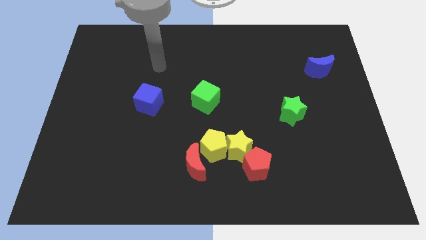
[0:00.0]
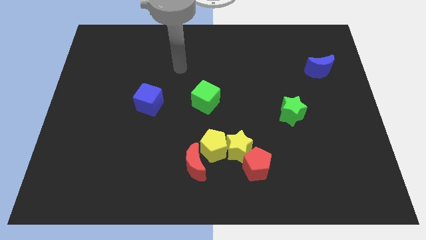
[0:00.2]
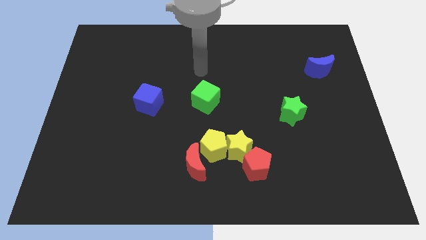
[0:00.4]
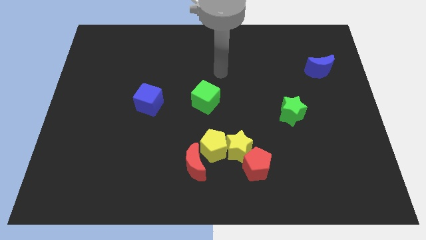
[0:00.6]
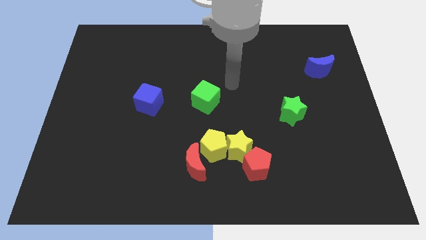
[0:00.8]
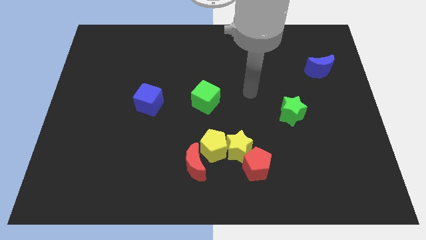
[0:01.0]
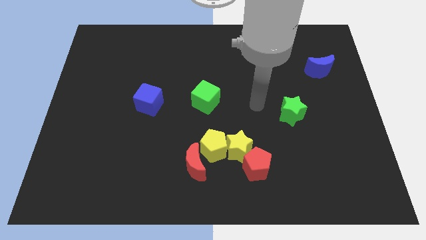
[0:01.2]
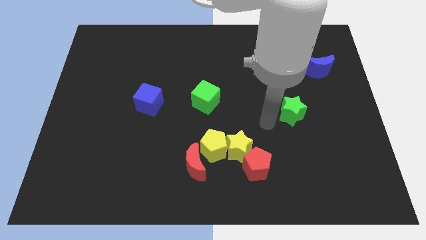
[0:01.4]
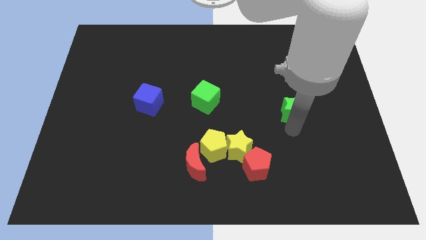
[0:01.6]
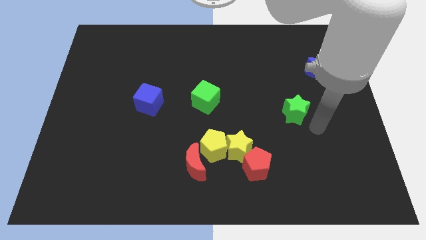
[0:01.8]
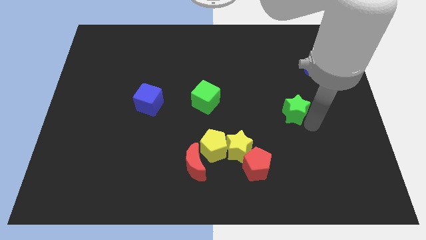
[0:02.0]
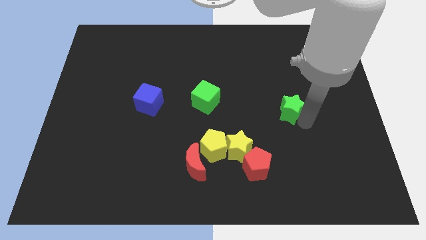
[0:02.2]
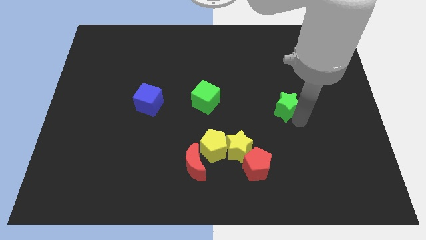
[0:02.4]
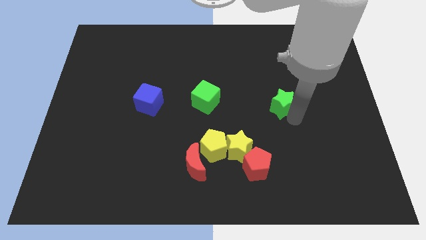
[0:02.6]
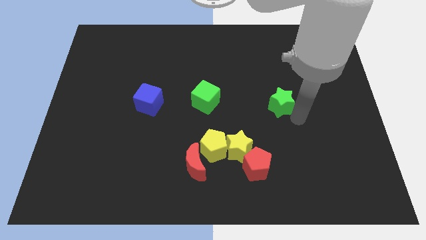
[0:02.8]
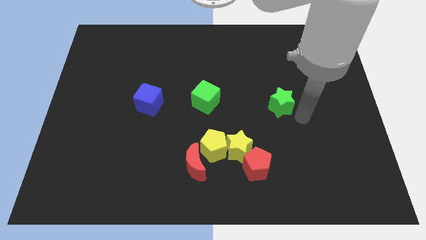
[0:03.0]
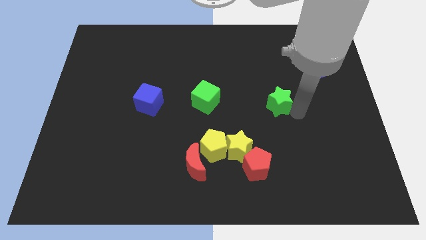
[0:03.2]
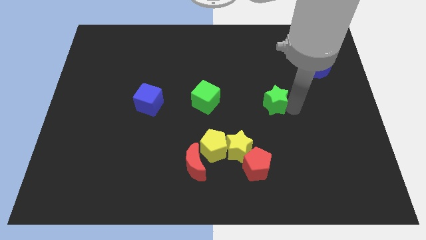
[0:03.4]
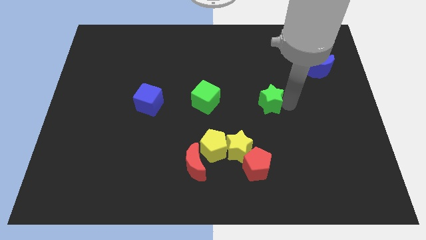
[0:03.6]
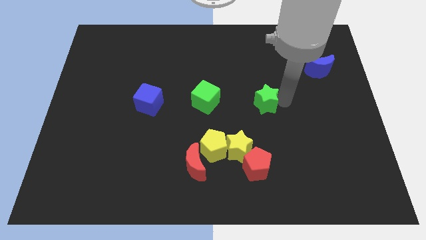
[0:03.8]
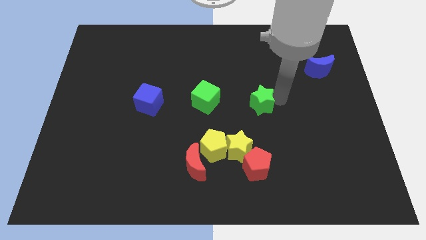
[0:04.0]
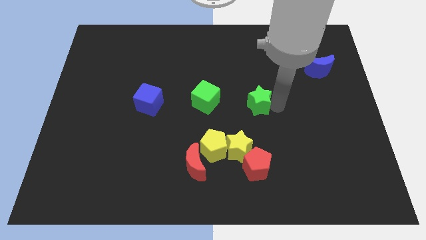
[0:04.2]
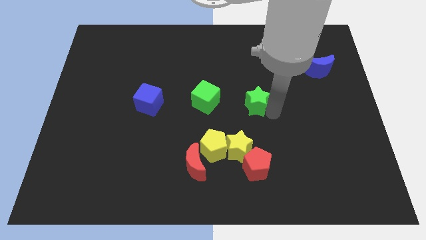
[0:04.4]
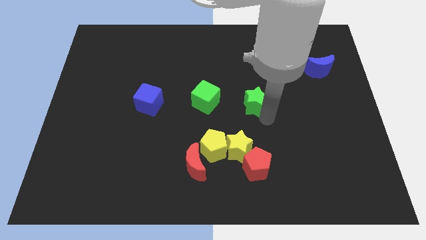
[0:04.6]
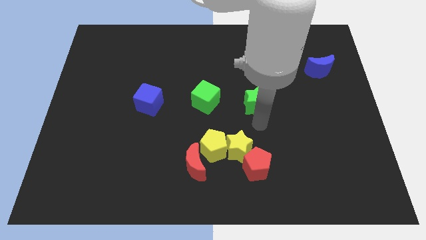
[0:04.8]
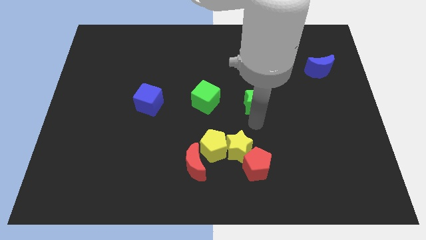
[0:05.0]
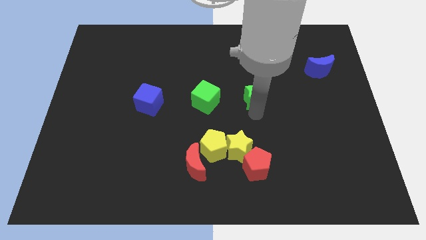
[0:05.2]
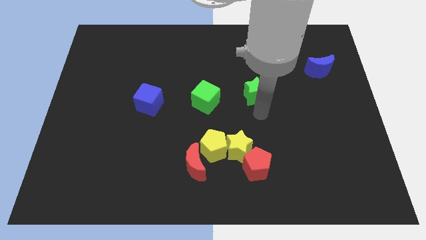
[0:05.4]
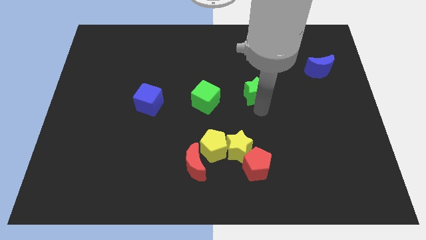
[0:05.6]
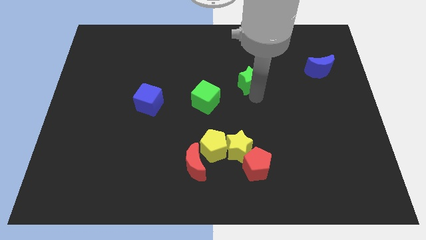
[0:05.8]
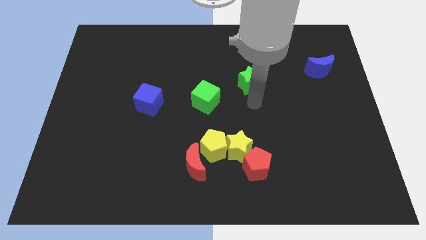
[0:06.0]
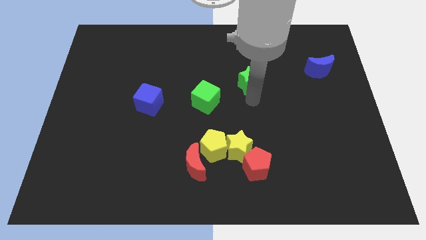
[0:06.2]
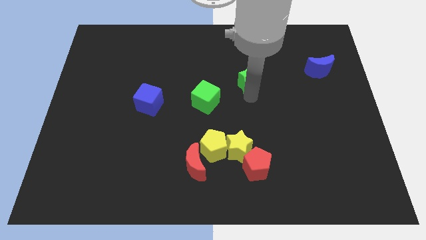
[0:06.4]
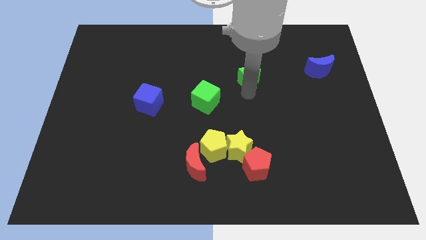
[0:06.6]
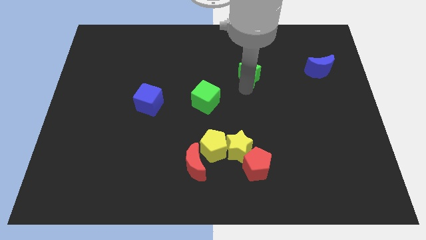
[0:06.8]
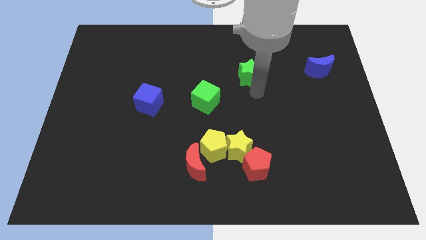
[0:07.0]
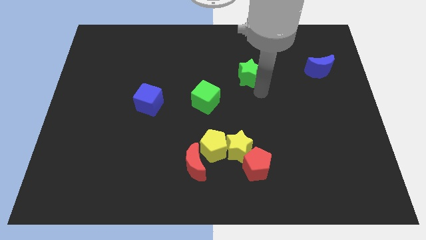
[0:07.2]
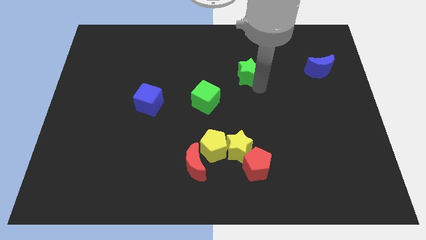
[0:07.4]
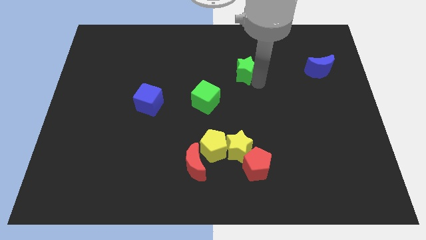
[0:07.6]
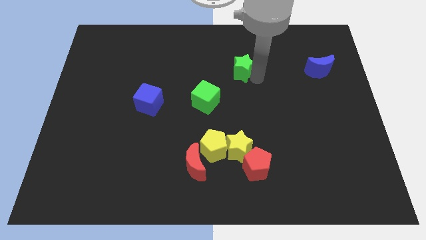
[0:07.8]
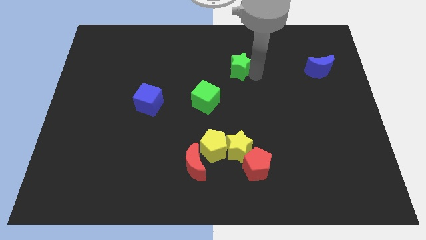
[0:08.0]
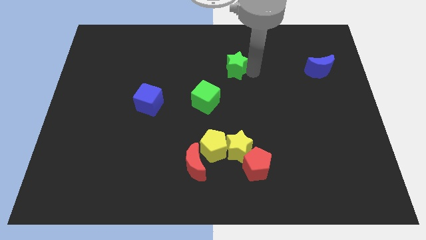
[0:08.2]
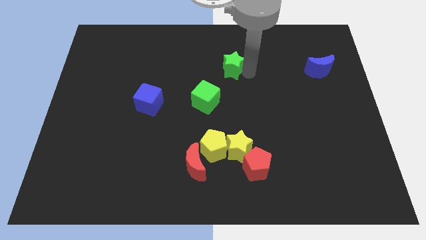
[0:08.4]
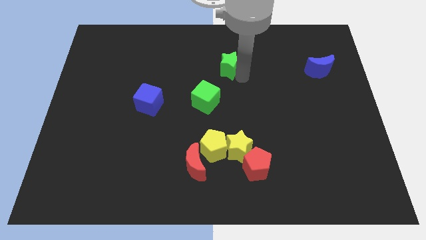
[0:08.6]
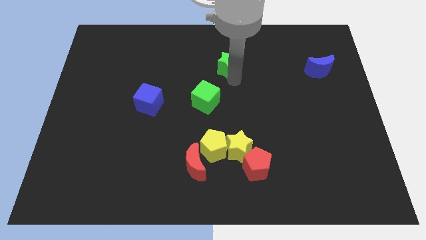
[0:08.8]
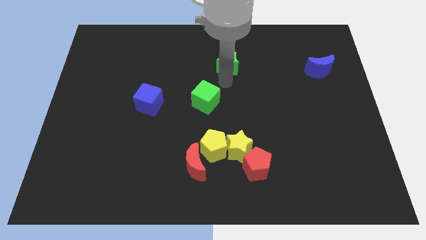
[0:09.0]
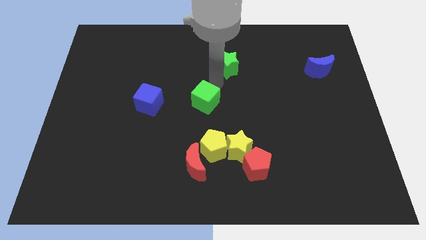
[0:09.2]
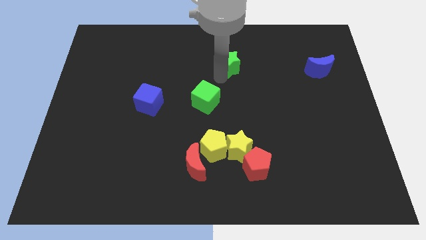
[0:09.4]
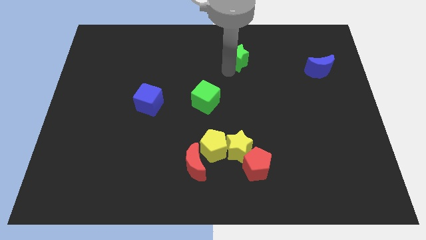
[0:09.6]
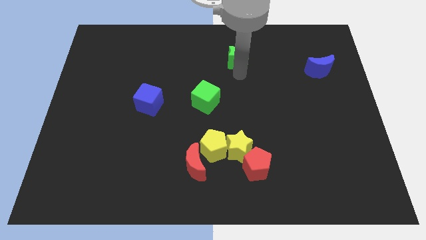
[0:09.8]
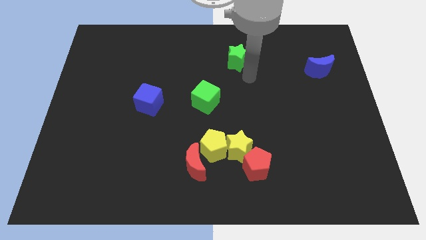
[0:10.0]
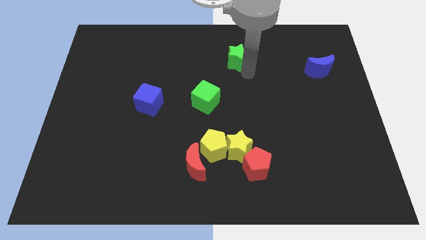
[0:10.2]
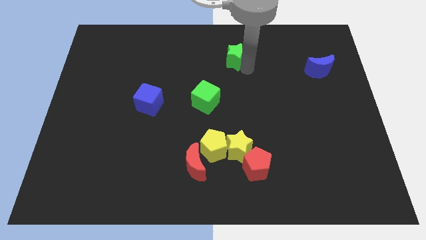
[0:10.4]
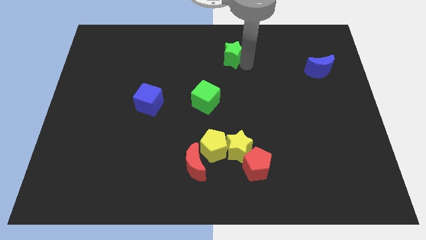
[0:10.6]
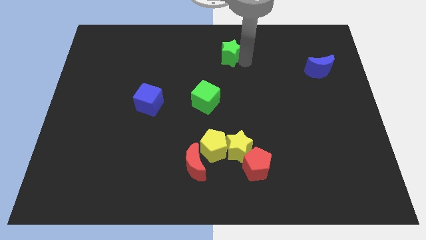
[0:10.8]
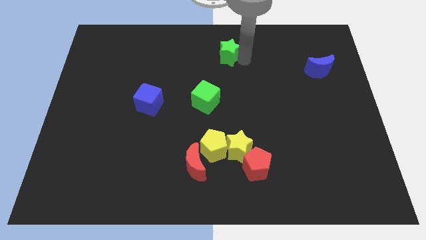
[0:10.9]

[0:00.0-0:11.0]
move the green star to the top side
